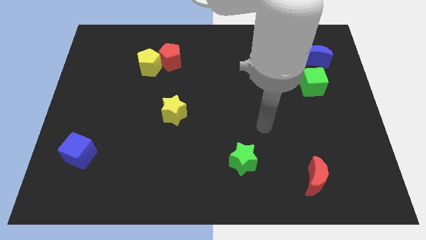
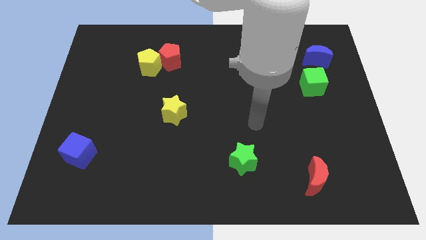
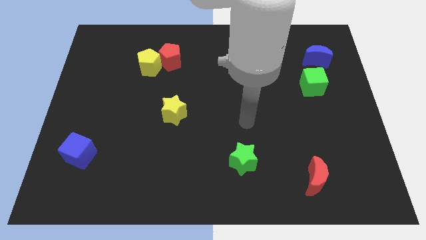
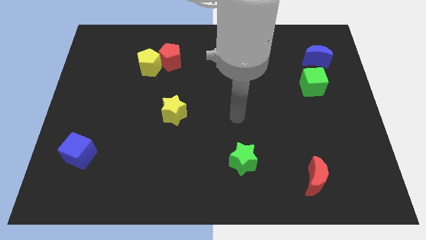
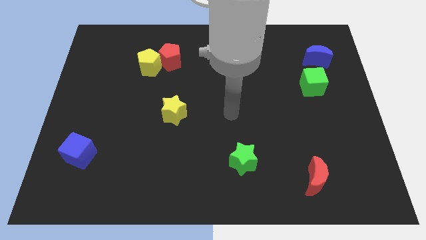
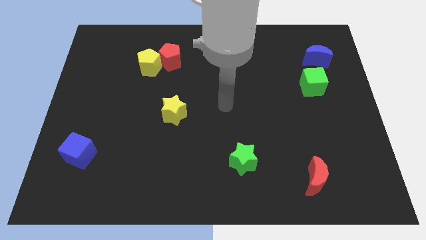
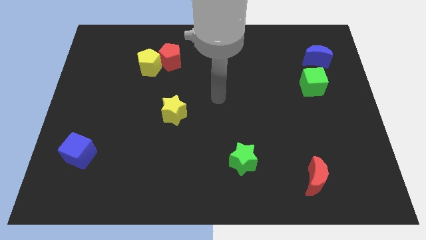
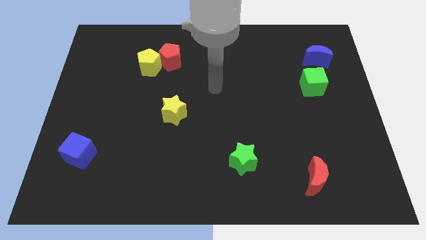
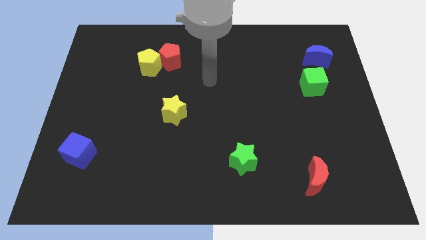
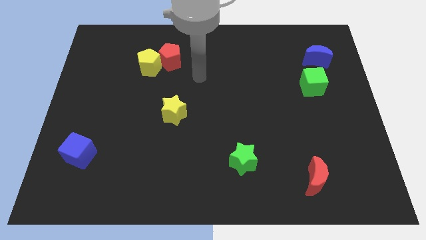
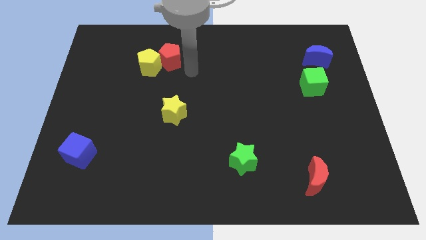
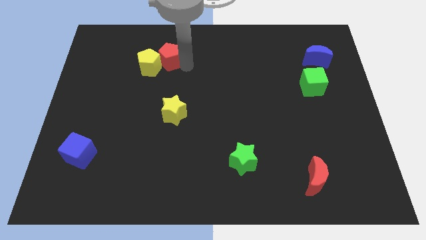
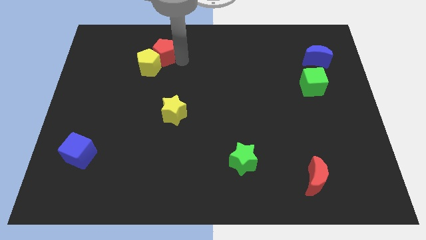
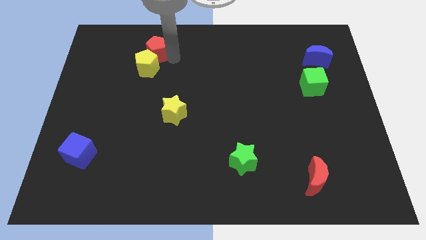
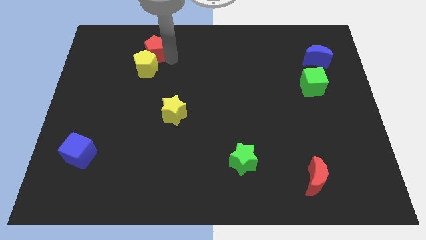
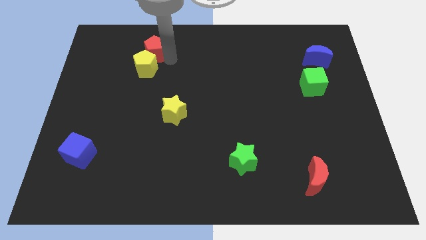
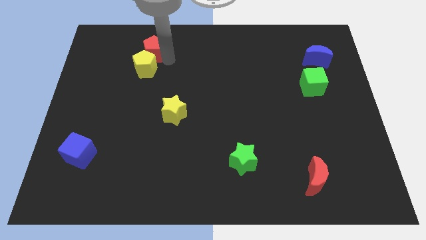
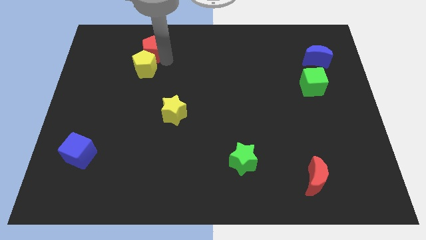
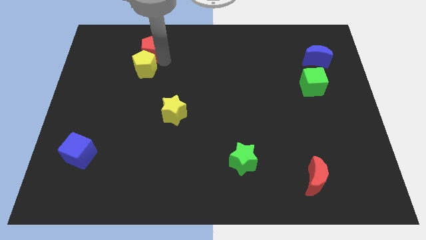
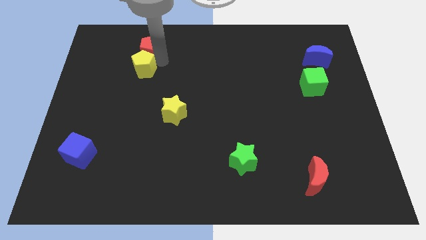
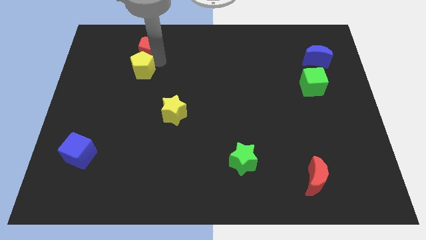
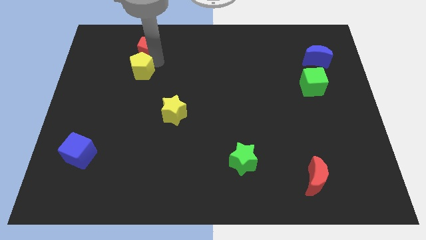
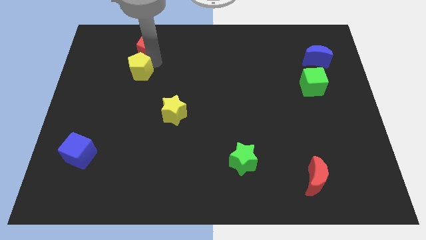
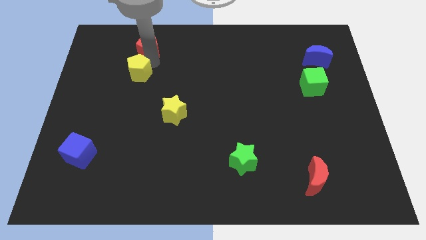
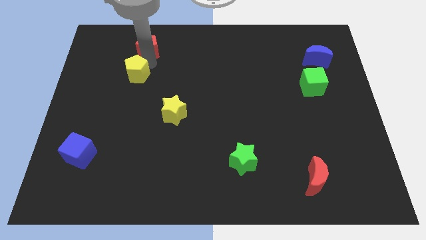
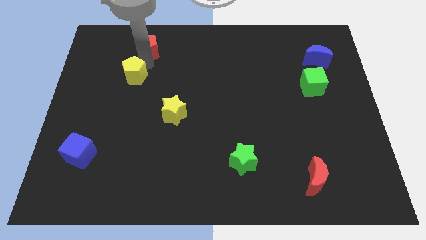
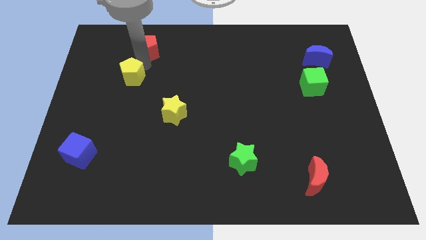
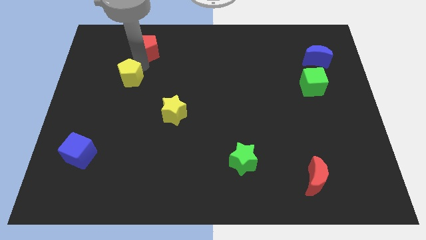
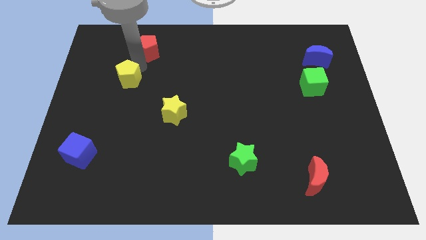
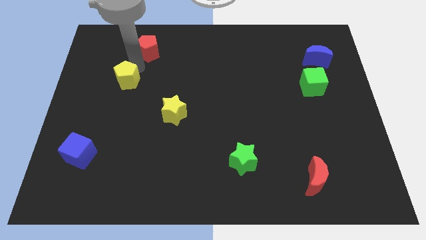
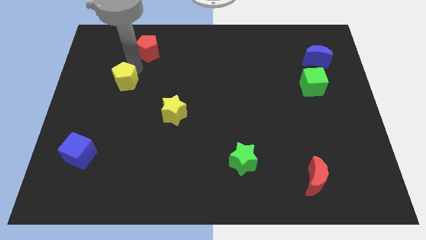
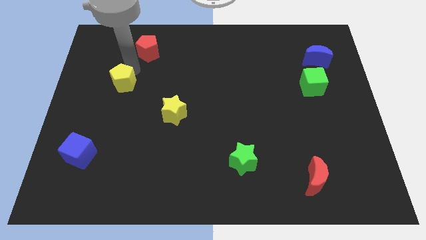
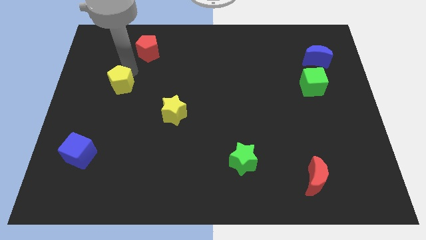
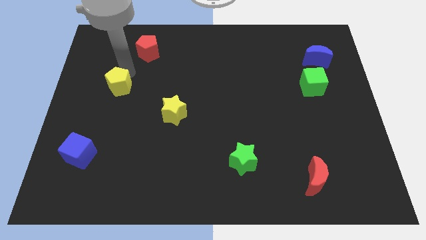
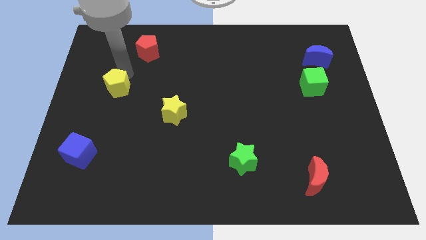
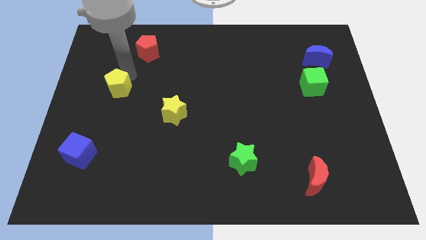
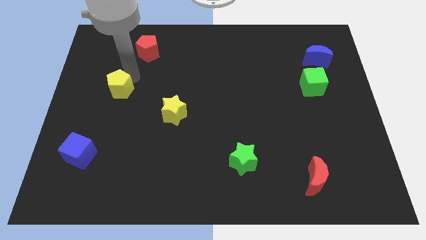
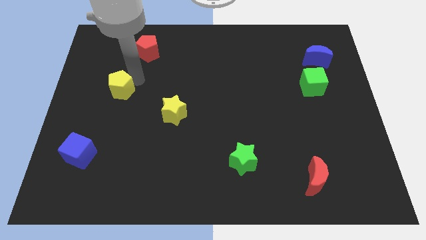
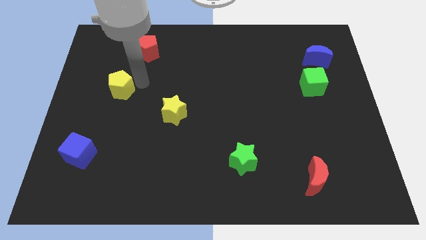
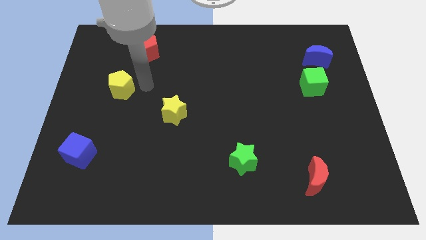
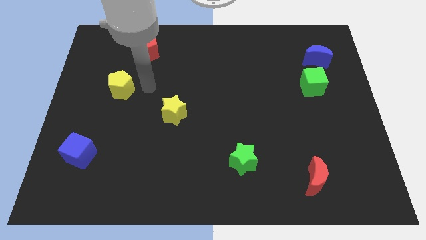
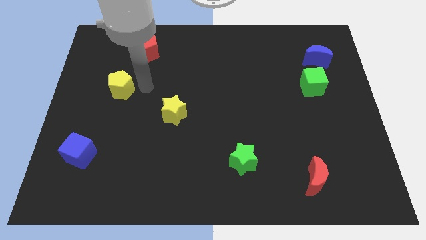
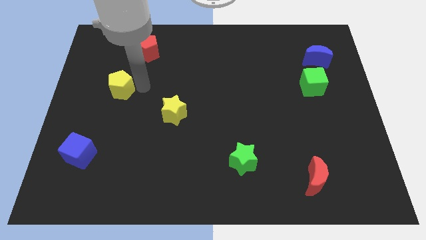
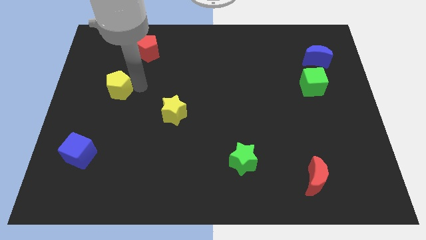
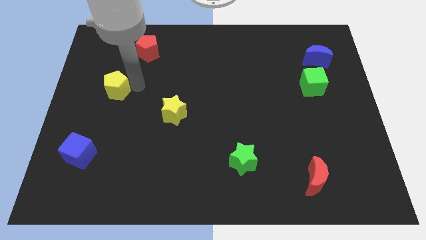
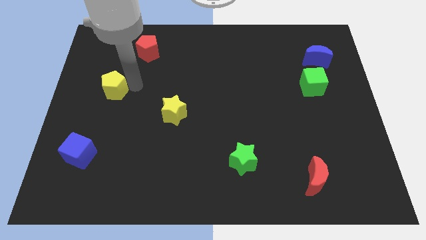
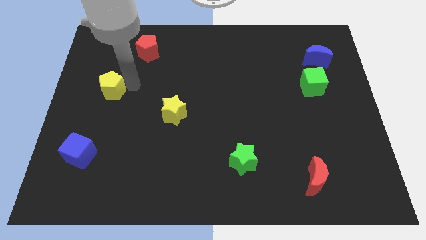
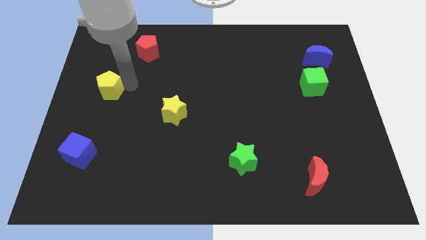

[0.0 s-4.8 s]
slide the yellow pentagon to the center left

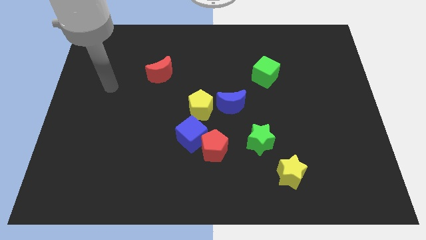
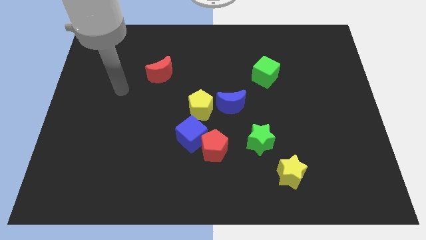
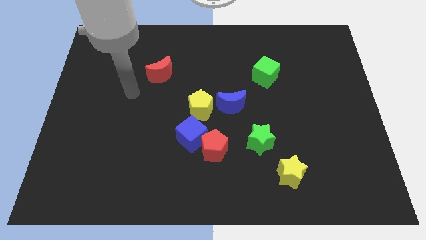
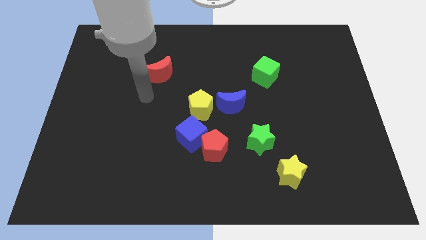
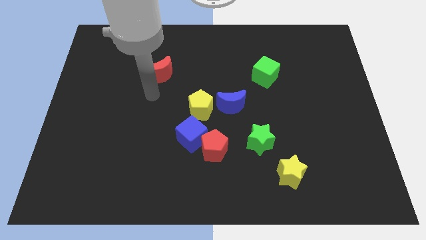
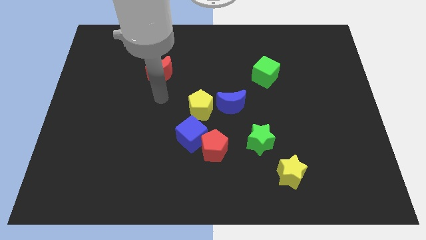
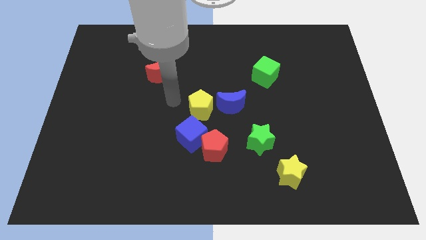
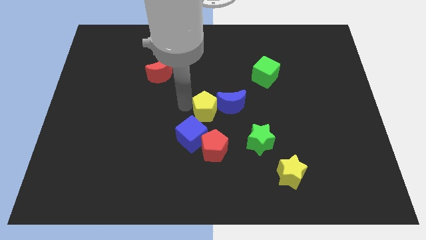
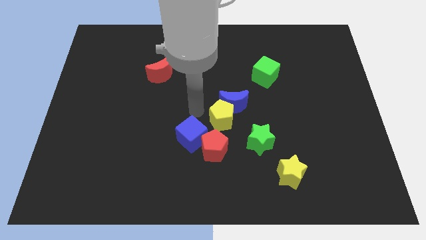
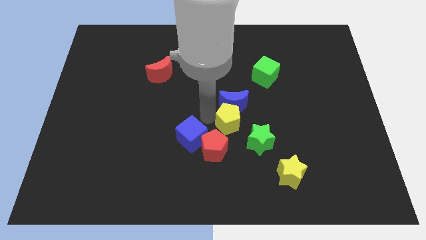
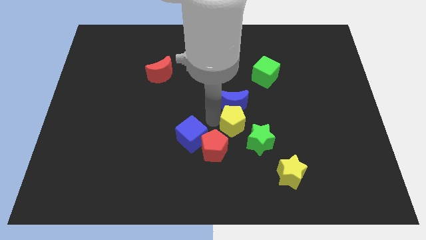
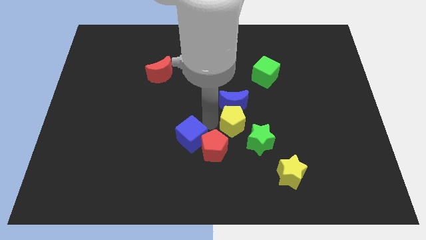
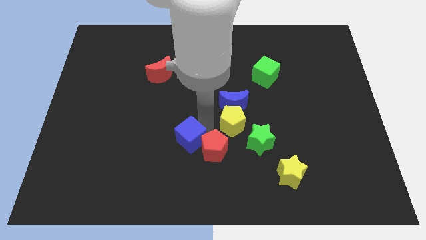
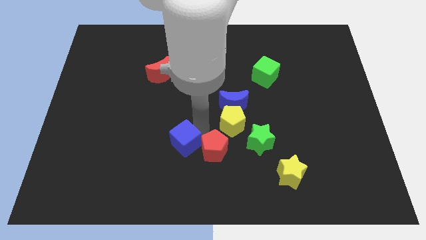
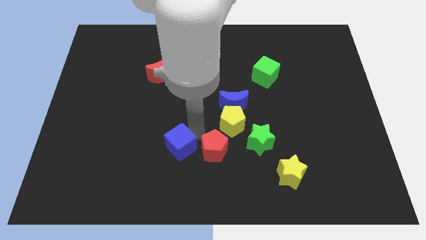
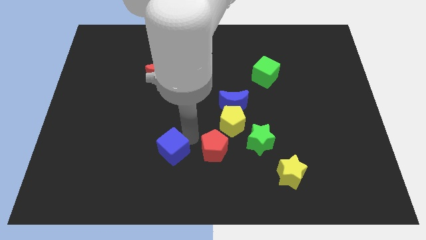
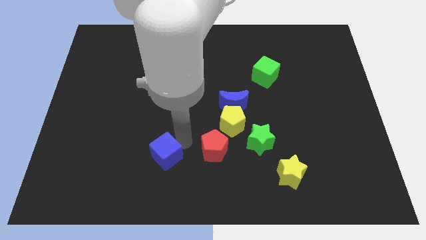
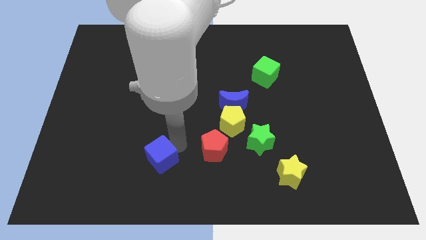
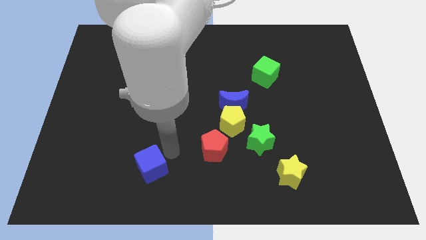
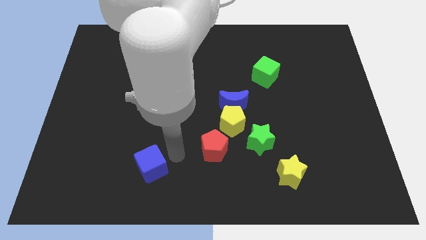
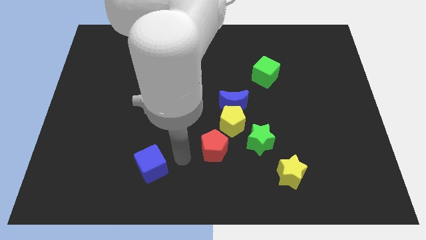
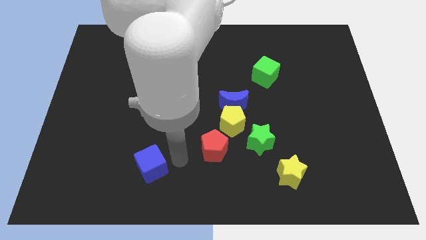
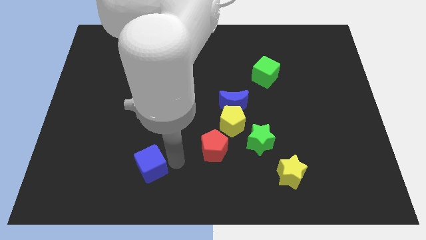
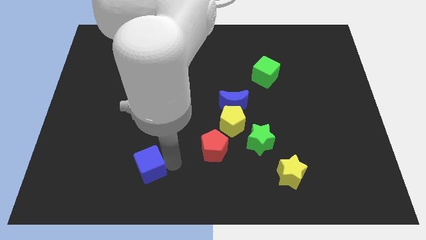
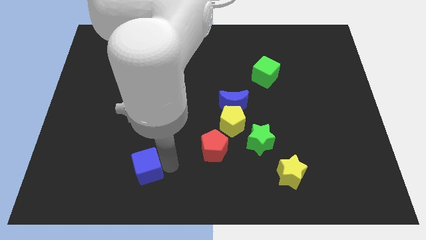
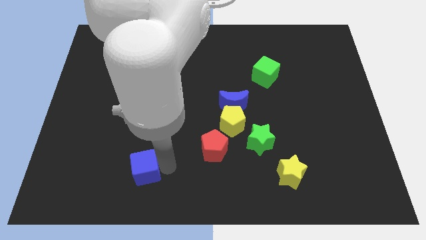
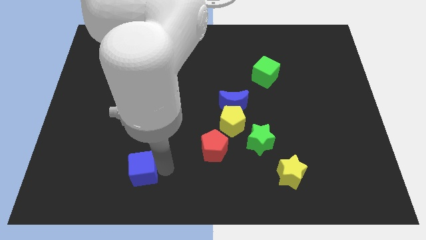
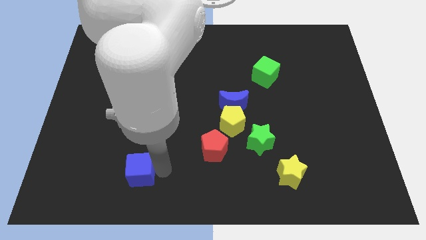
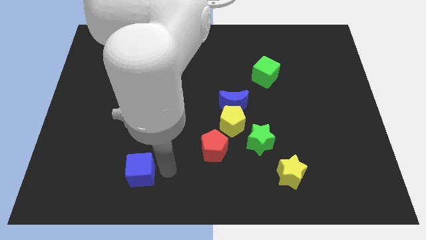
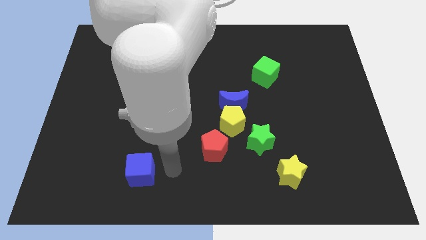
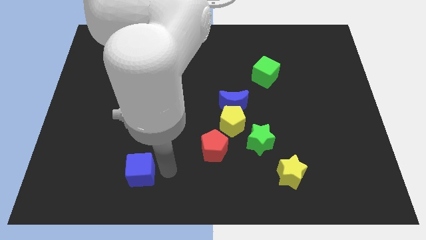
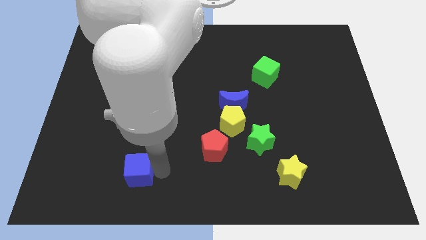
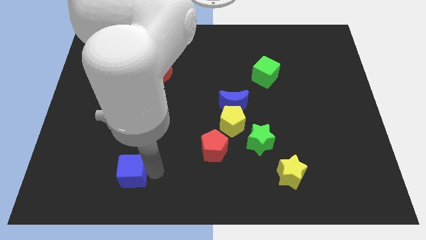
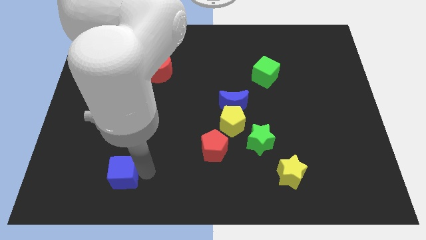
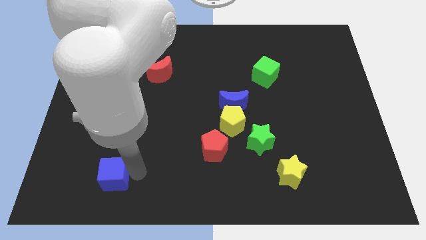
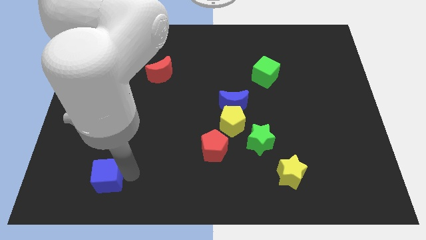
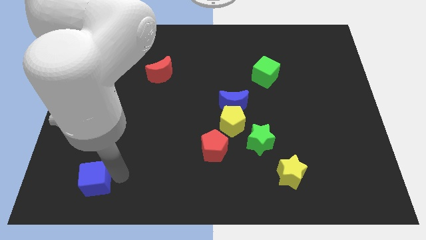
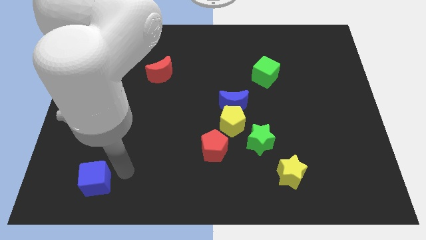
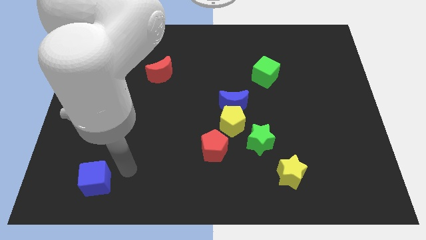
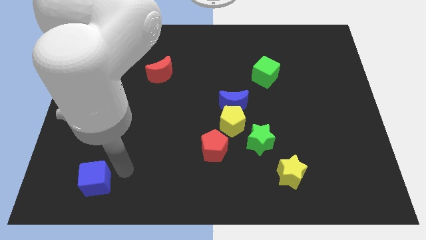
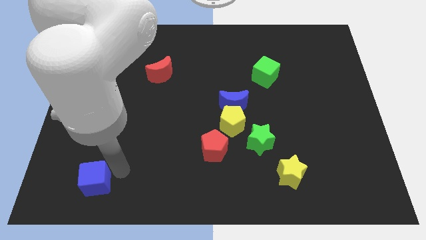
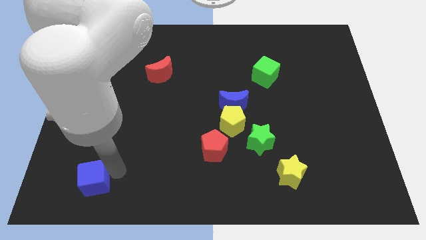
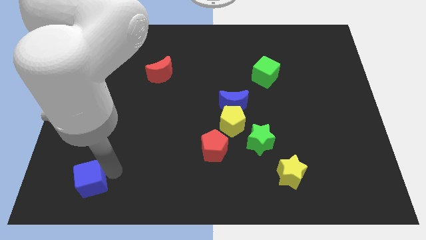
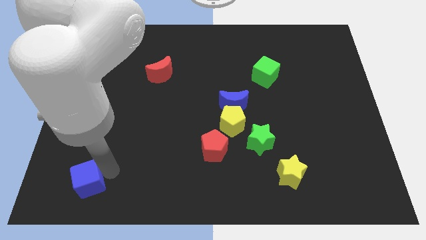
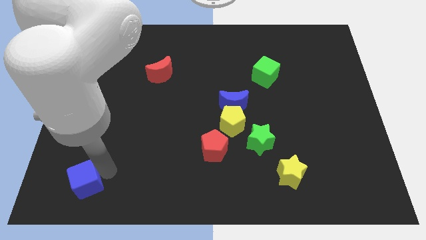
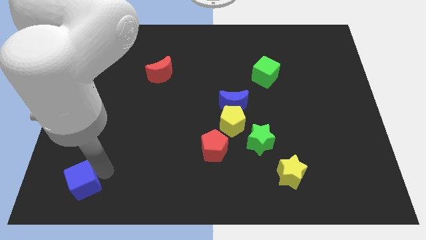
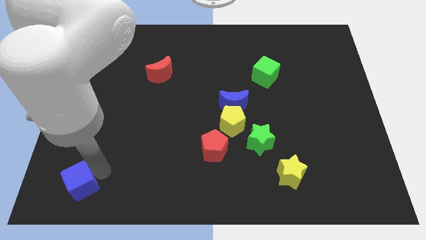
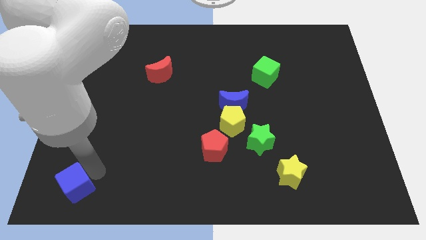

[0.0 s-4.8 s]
move the blue cube to the bottom left
